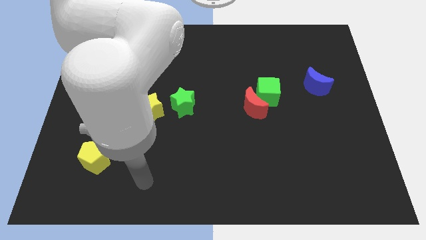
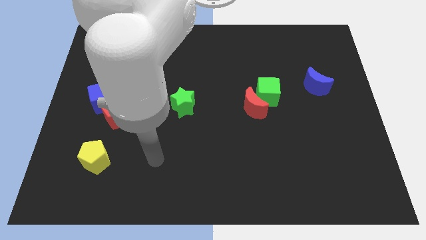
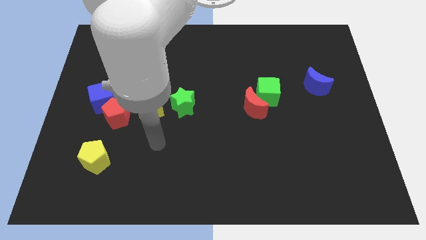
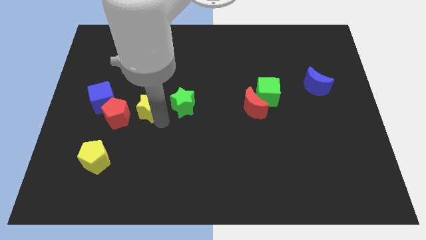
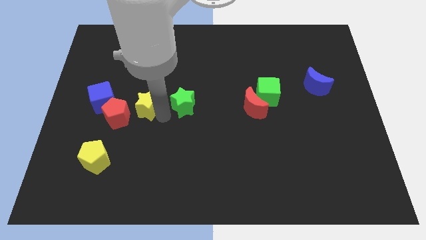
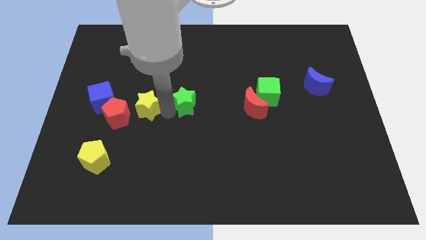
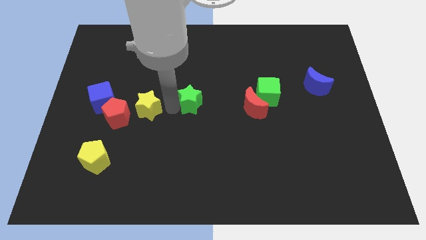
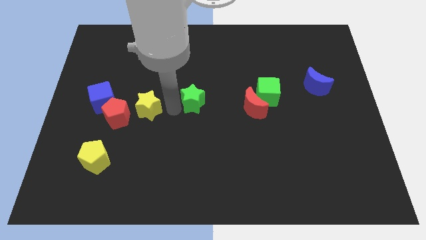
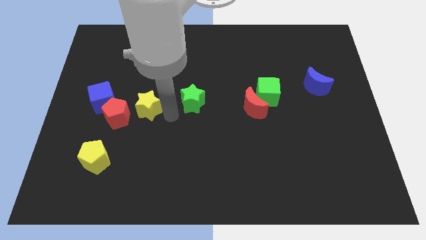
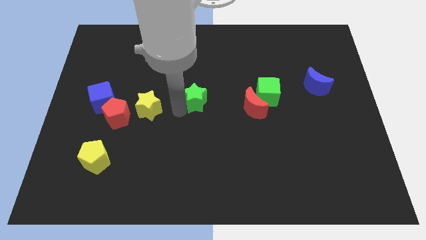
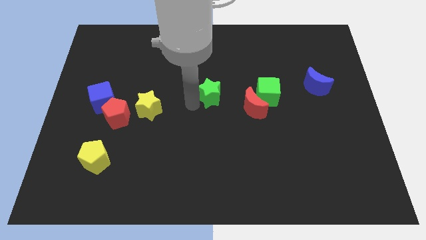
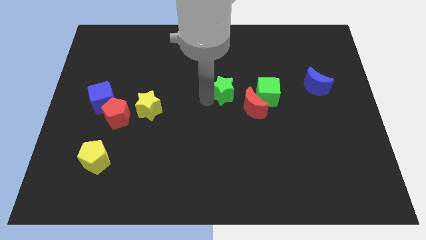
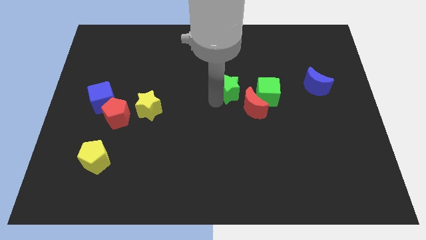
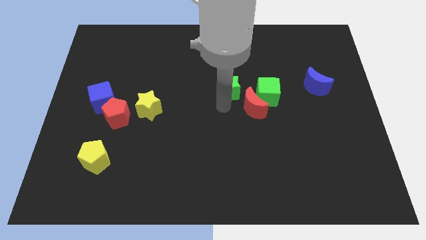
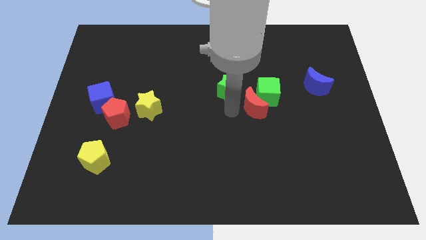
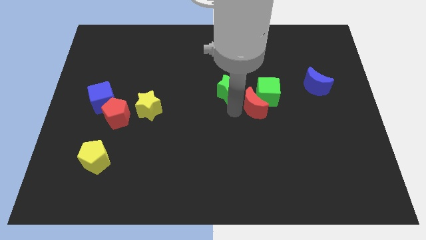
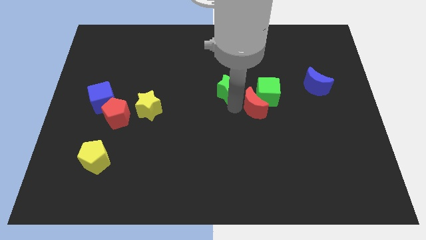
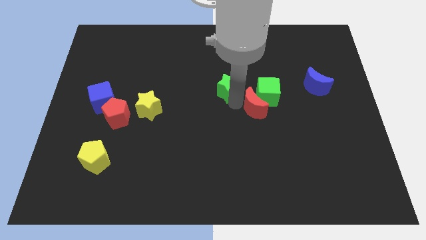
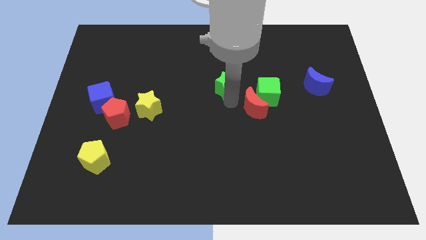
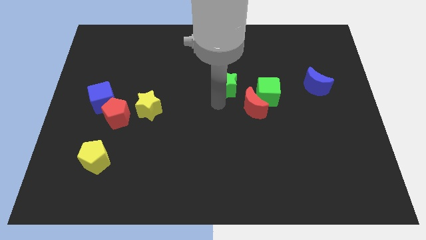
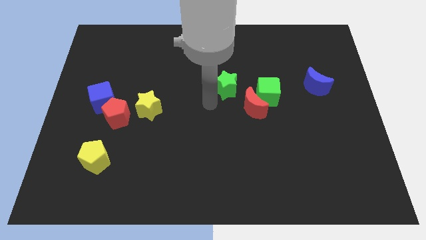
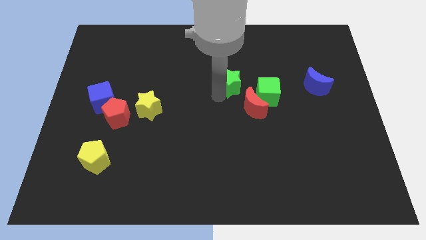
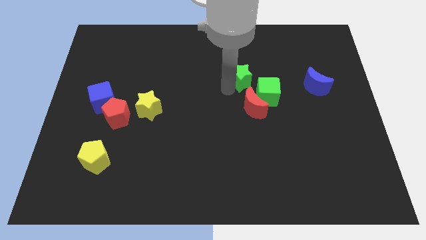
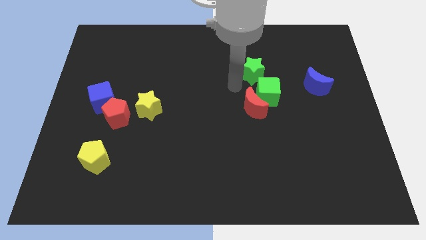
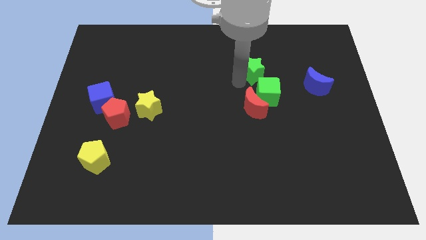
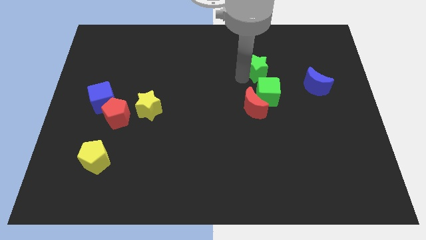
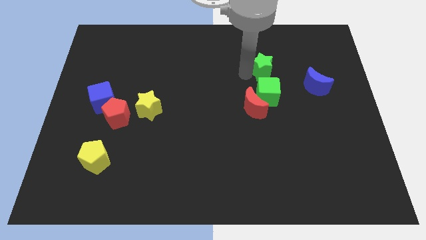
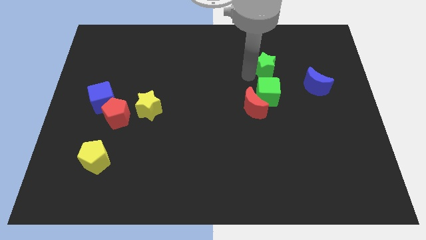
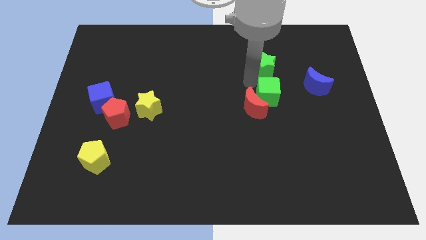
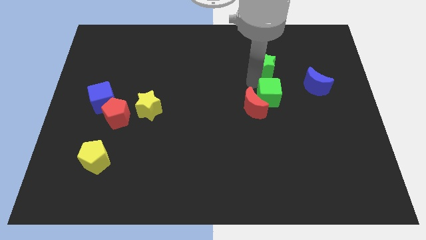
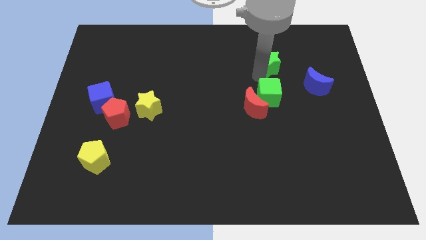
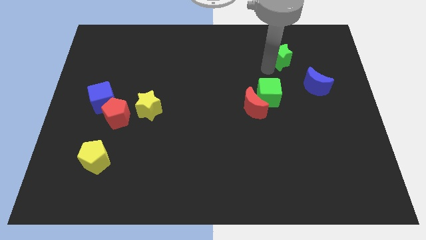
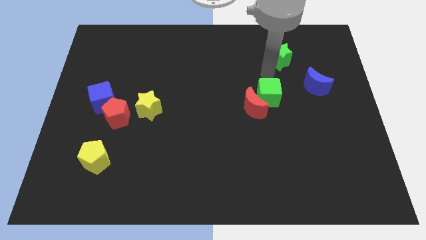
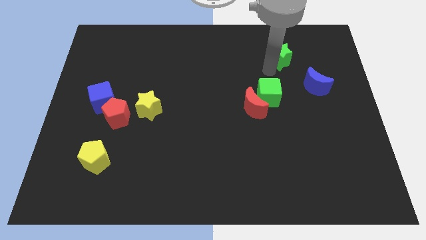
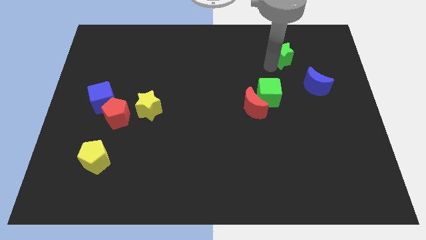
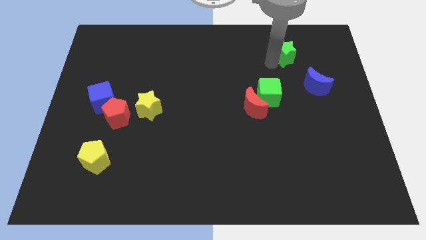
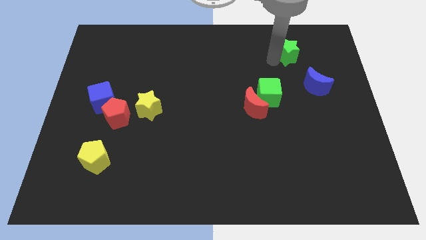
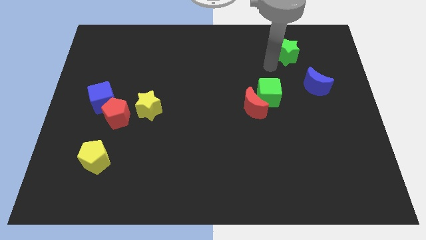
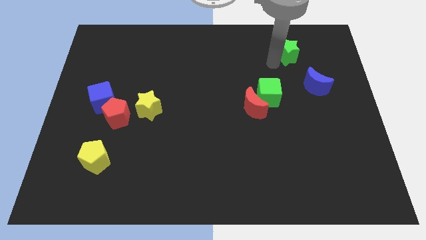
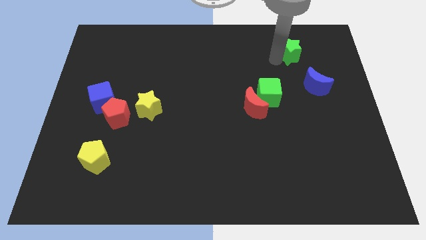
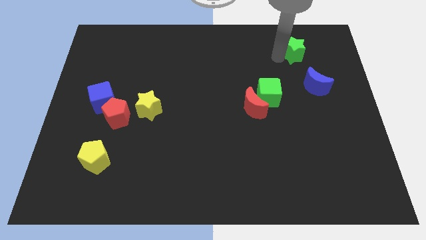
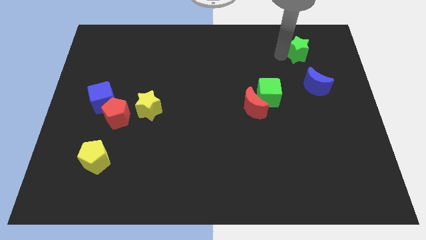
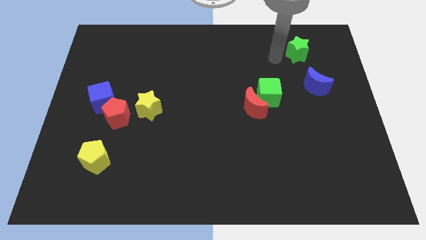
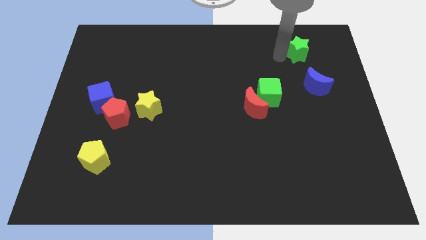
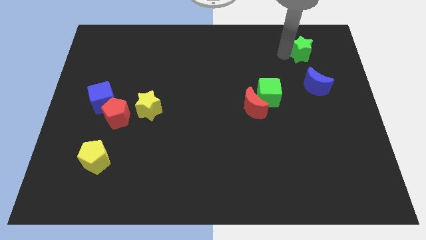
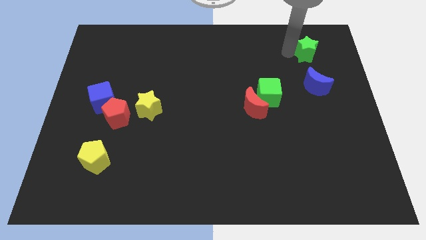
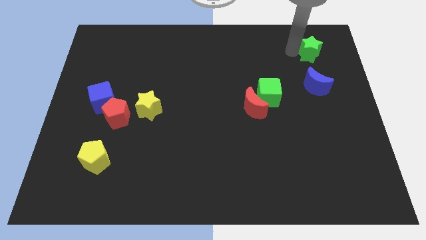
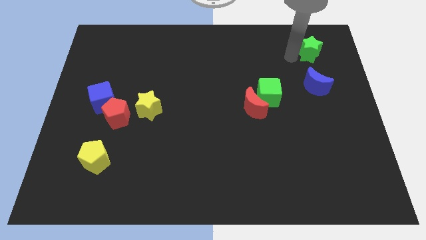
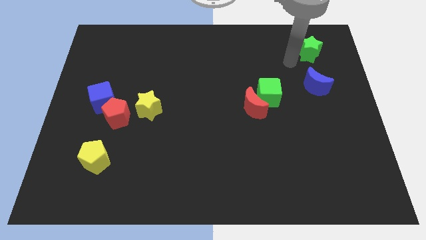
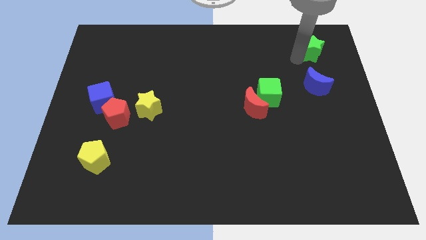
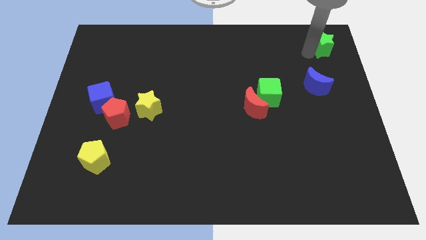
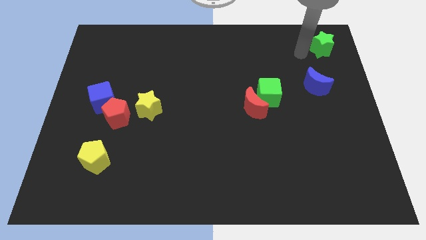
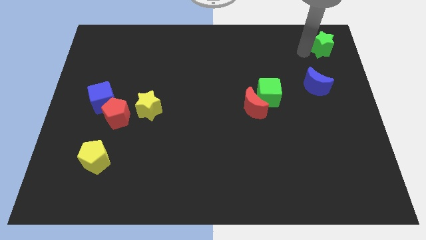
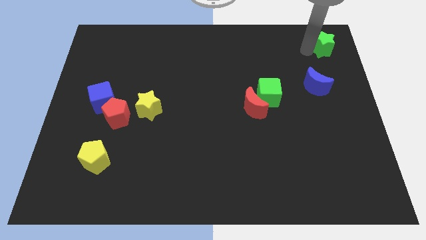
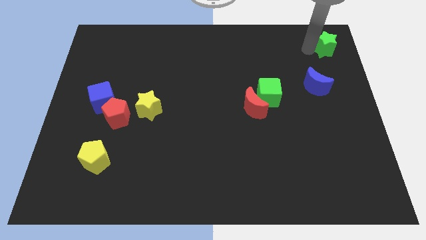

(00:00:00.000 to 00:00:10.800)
put the green star to the upper right corner
